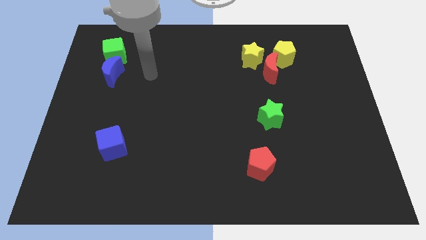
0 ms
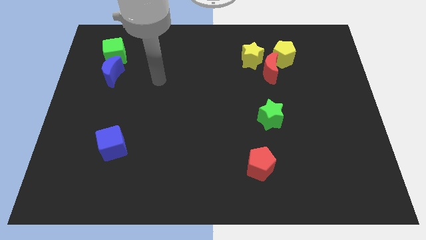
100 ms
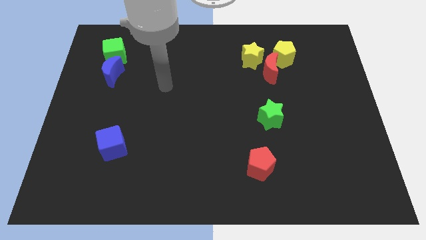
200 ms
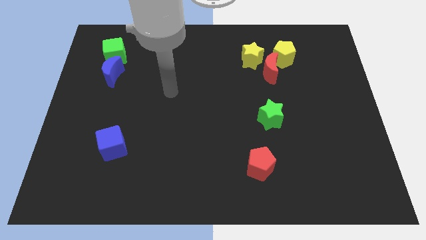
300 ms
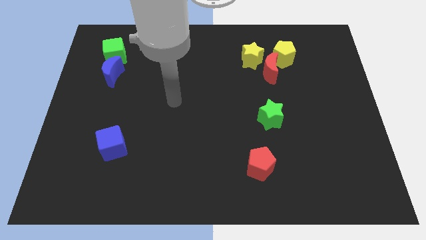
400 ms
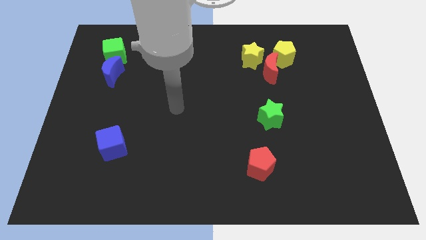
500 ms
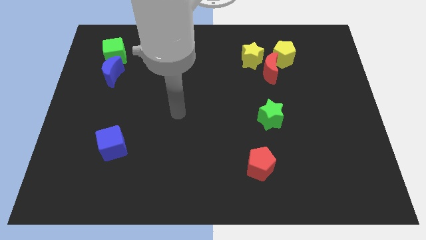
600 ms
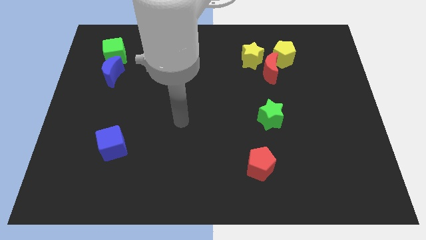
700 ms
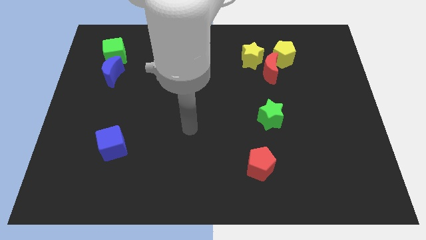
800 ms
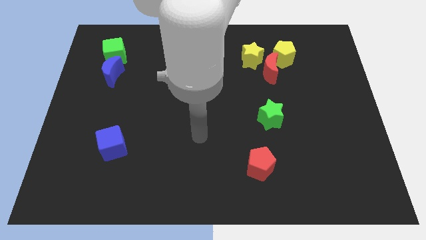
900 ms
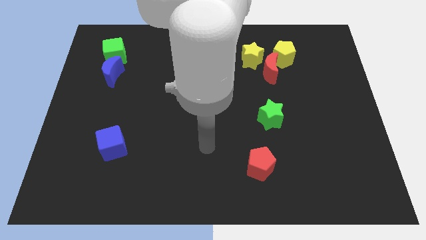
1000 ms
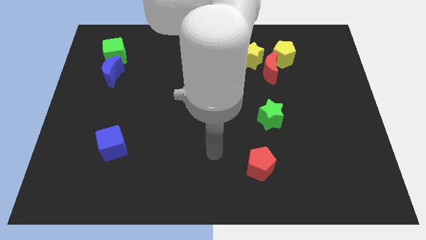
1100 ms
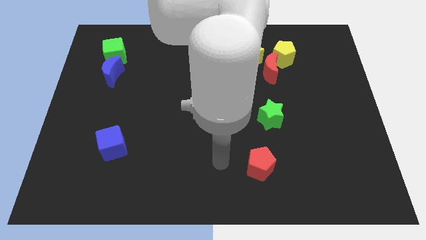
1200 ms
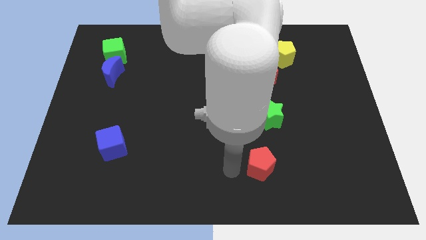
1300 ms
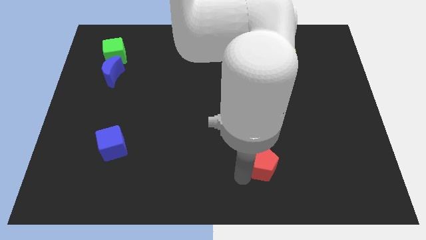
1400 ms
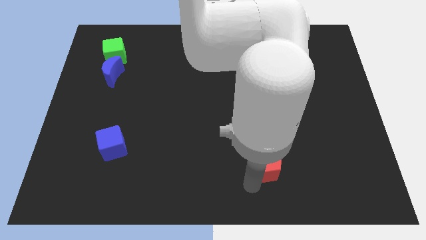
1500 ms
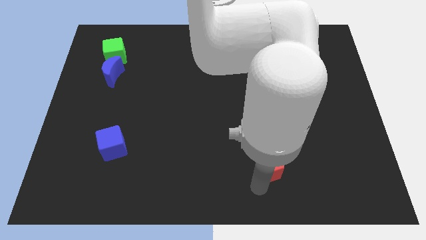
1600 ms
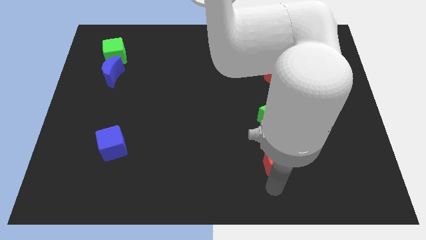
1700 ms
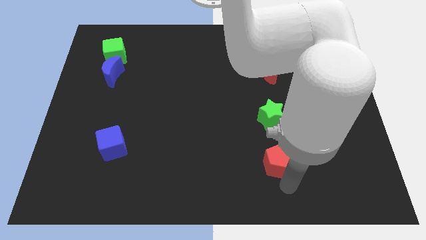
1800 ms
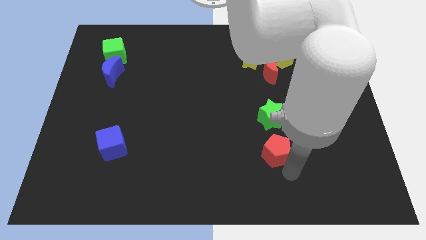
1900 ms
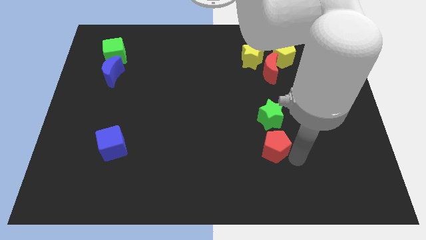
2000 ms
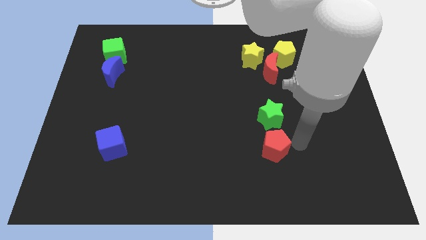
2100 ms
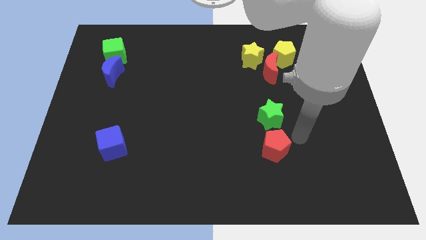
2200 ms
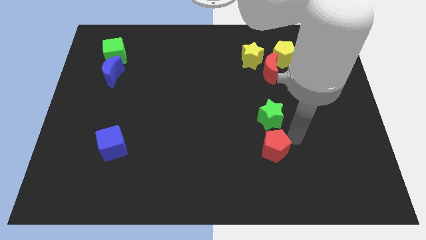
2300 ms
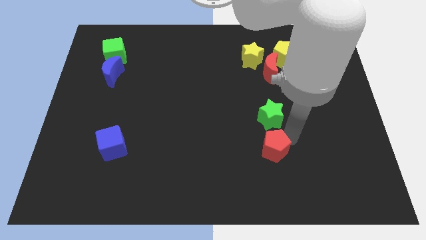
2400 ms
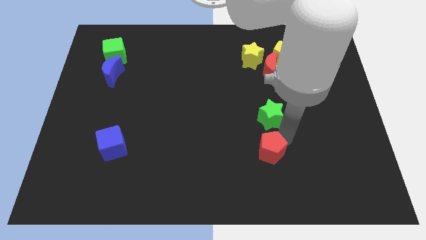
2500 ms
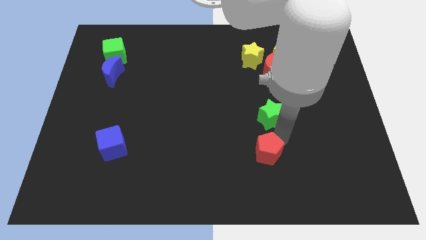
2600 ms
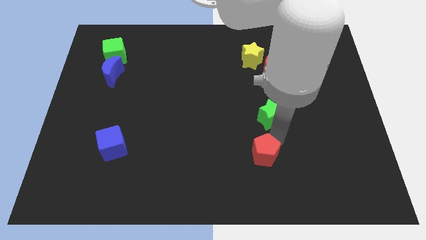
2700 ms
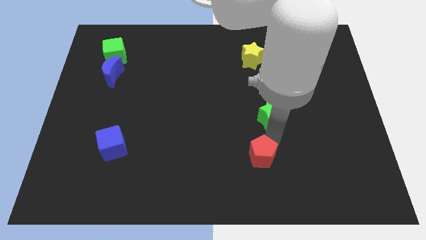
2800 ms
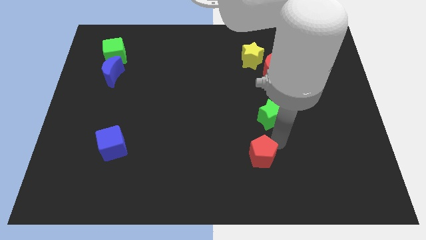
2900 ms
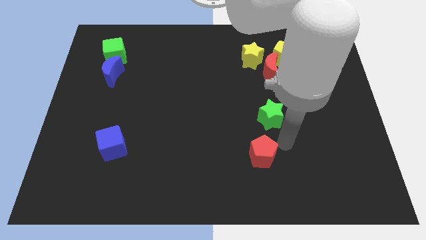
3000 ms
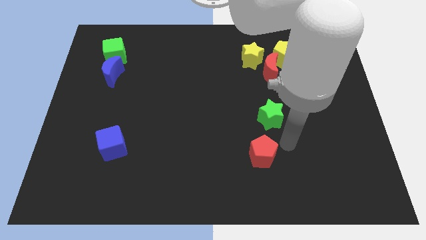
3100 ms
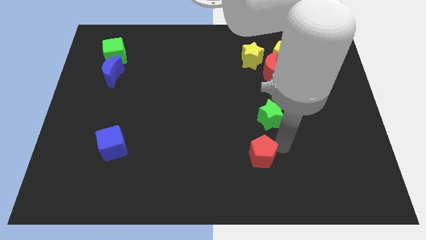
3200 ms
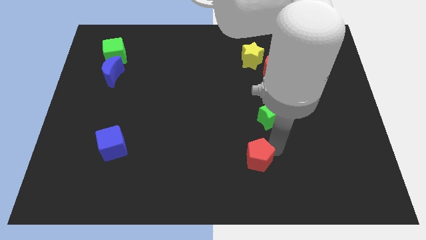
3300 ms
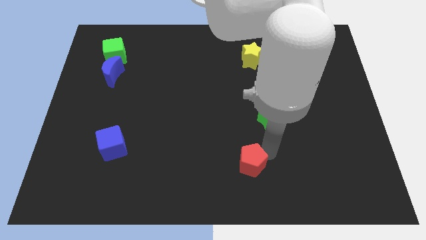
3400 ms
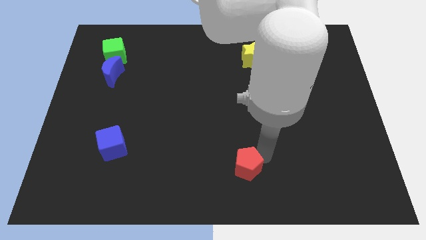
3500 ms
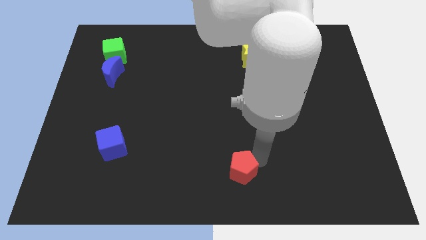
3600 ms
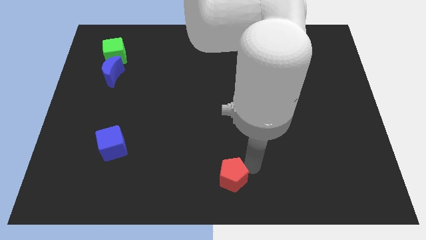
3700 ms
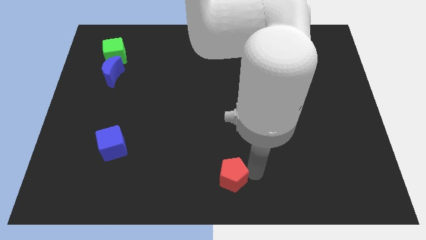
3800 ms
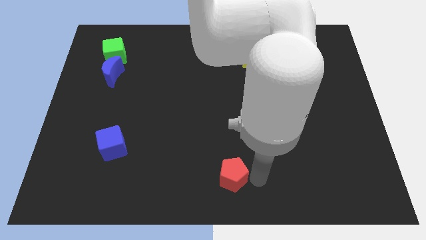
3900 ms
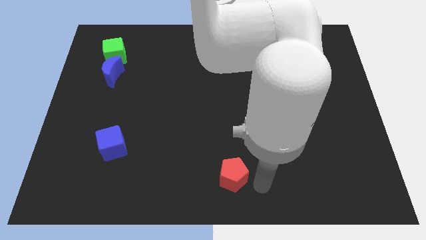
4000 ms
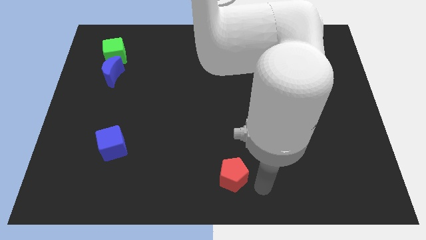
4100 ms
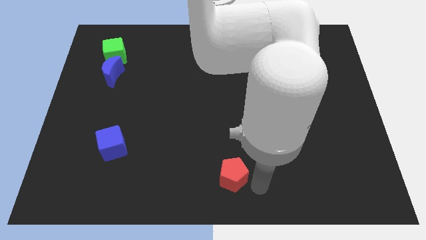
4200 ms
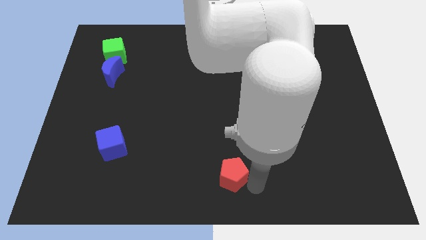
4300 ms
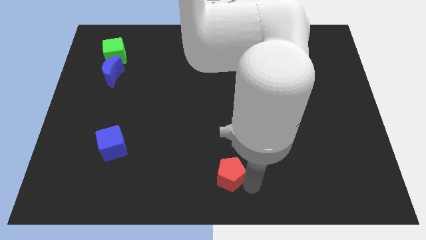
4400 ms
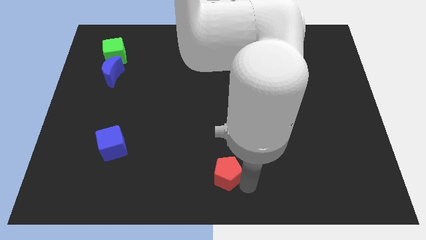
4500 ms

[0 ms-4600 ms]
move the red pentagon left a little

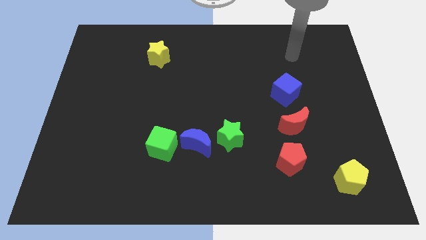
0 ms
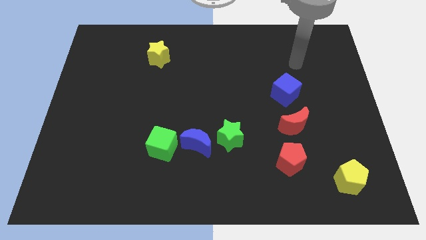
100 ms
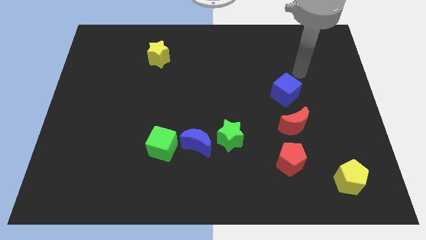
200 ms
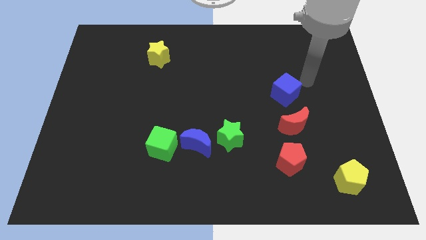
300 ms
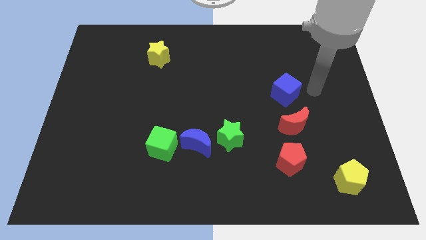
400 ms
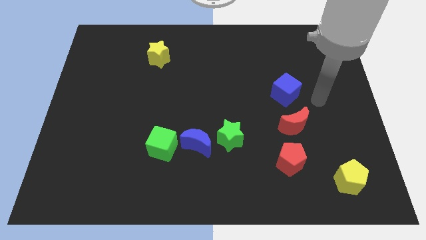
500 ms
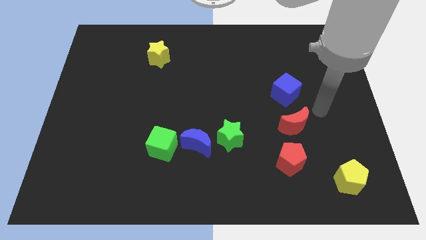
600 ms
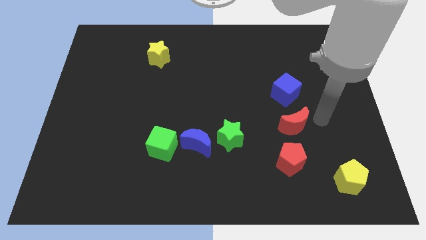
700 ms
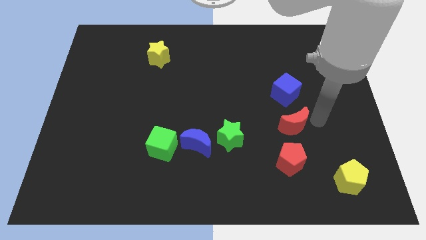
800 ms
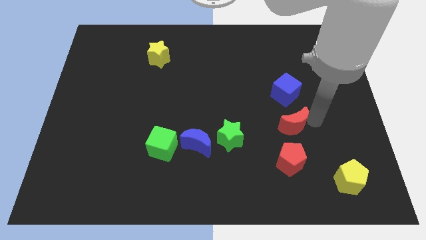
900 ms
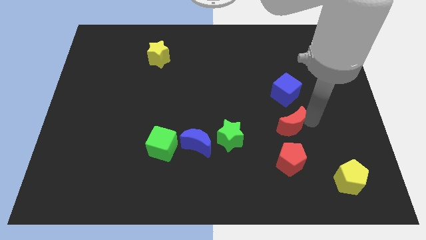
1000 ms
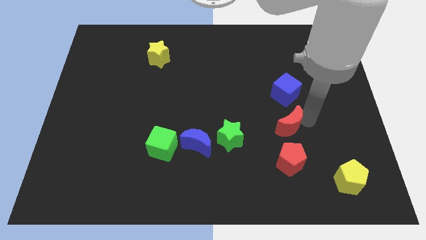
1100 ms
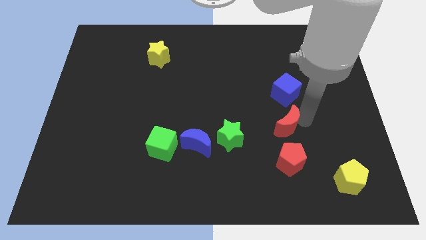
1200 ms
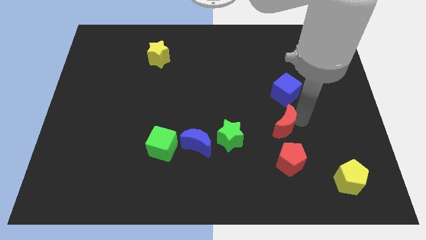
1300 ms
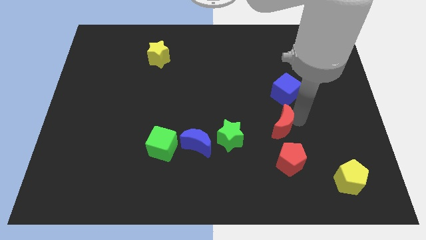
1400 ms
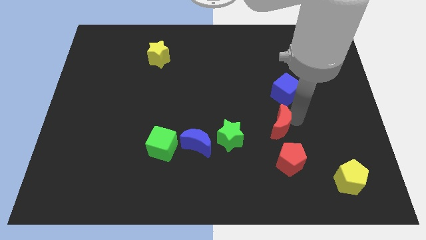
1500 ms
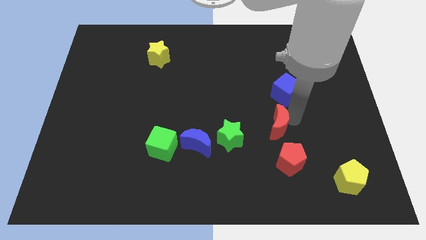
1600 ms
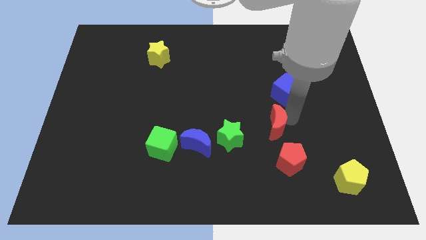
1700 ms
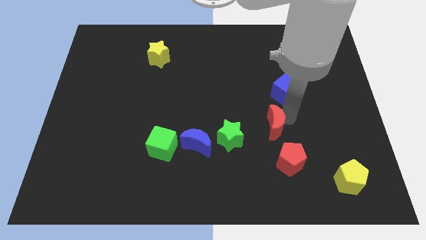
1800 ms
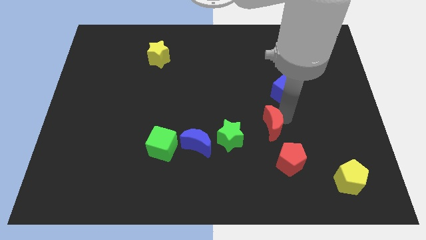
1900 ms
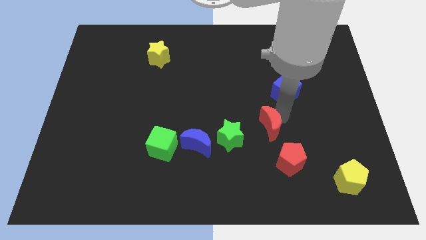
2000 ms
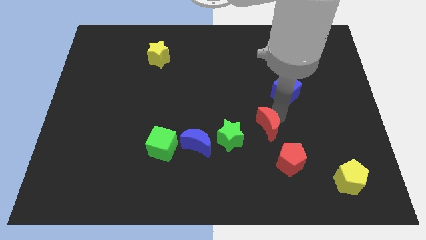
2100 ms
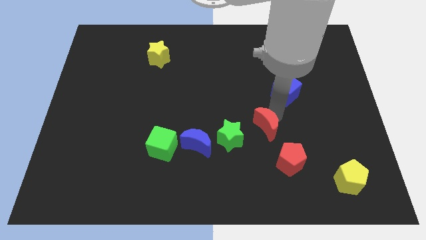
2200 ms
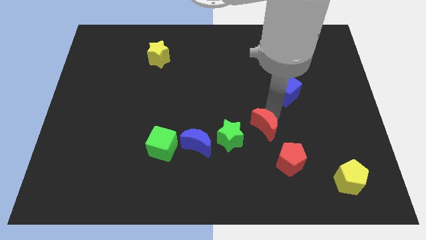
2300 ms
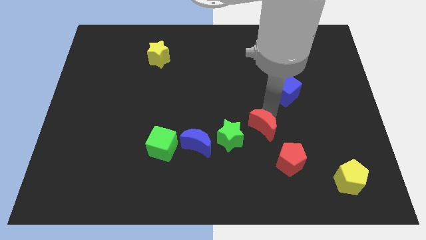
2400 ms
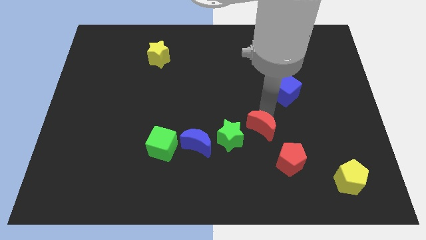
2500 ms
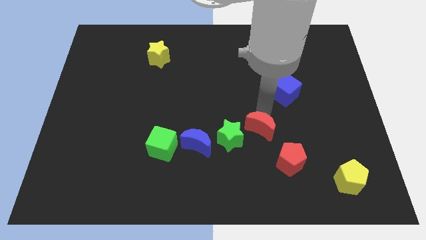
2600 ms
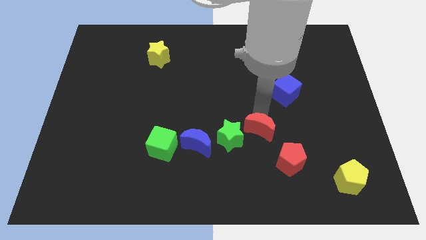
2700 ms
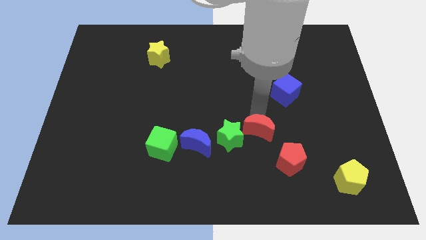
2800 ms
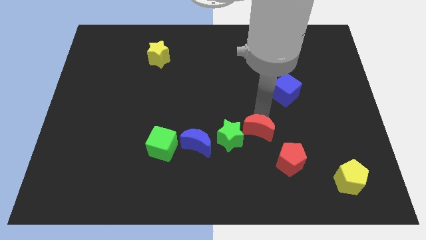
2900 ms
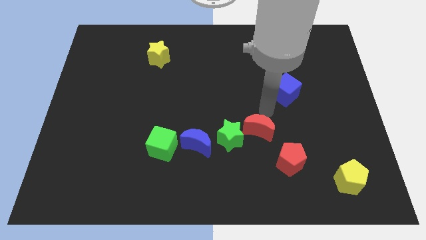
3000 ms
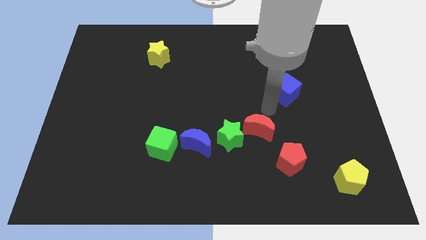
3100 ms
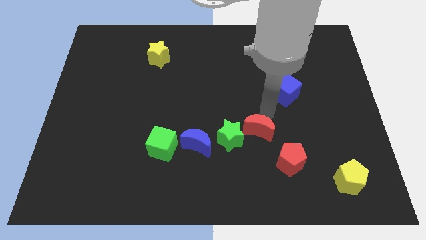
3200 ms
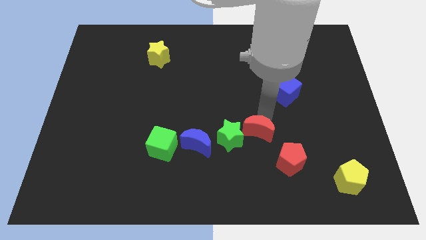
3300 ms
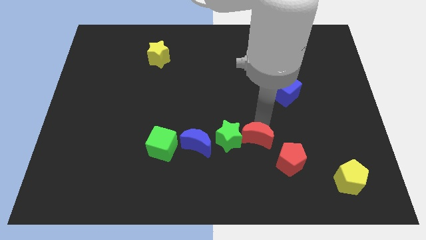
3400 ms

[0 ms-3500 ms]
move the red moon a little bit down and to the left
